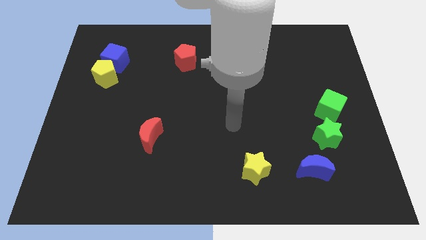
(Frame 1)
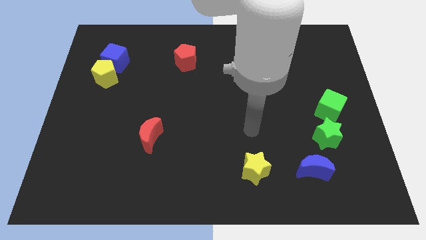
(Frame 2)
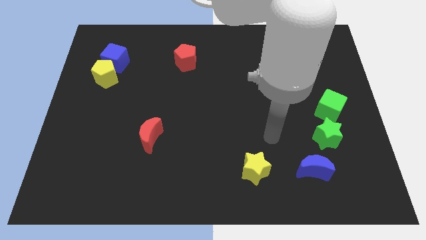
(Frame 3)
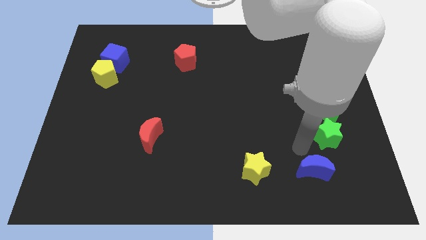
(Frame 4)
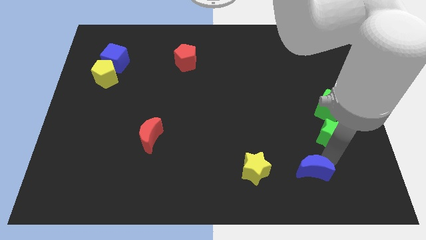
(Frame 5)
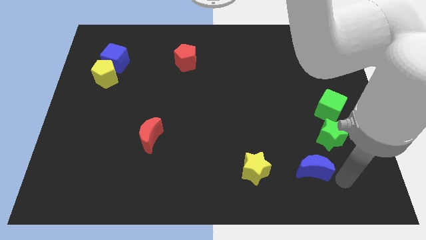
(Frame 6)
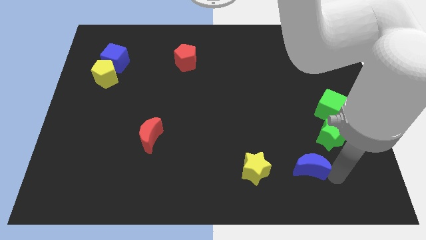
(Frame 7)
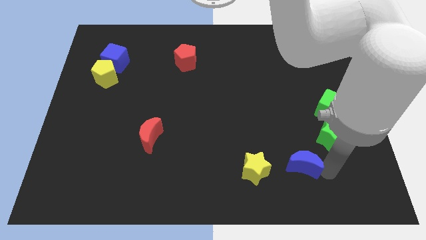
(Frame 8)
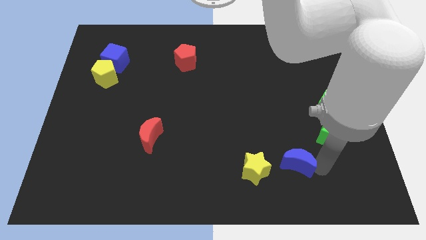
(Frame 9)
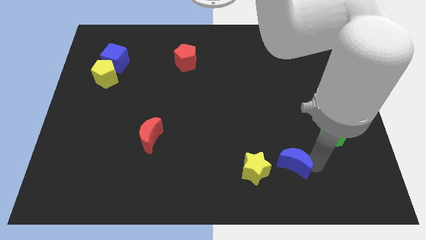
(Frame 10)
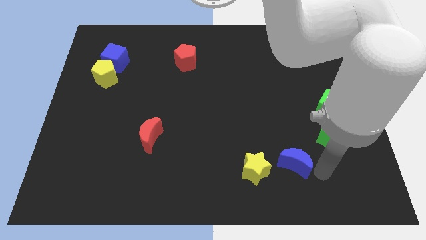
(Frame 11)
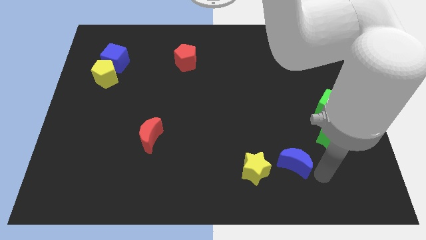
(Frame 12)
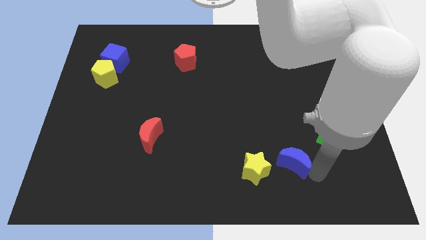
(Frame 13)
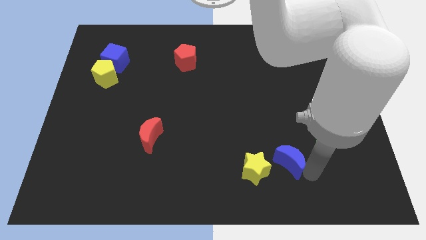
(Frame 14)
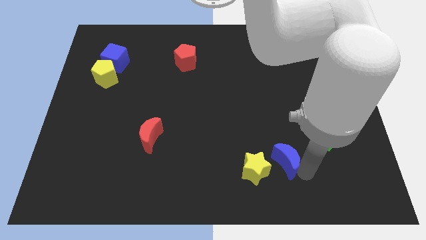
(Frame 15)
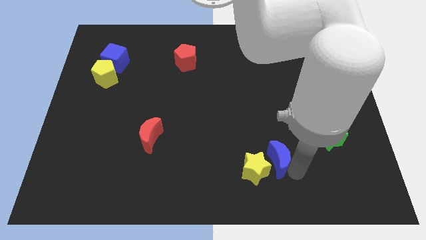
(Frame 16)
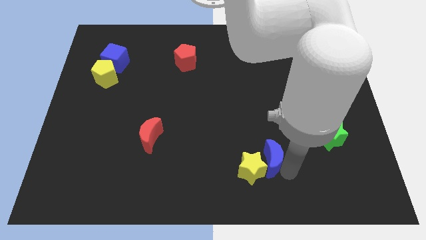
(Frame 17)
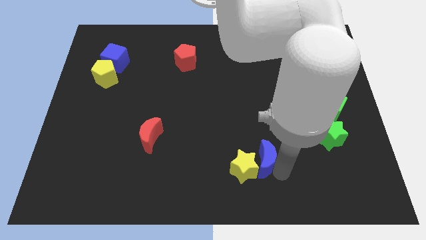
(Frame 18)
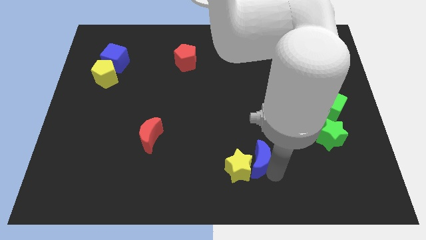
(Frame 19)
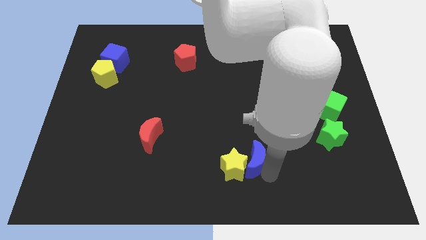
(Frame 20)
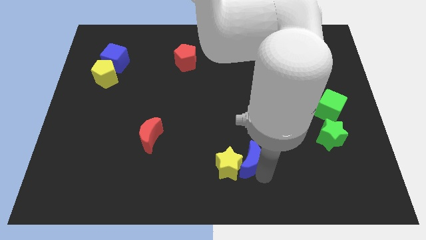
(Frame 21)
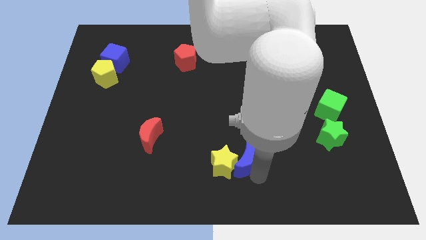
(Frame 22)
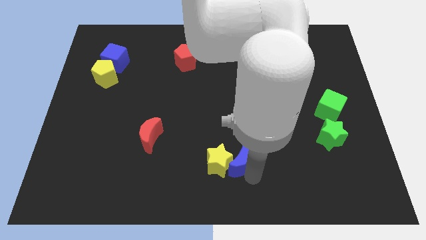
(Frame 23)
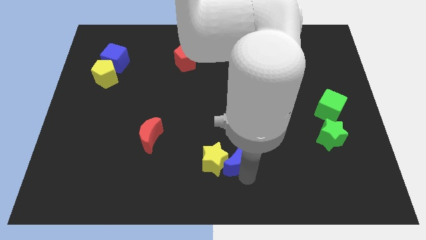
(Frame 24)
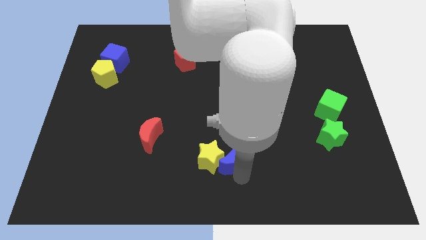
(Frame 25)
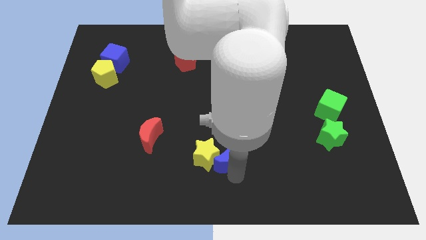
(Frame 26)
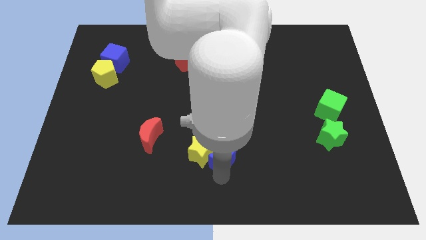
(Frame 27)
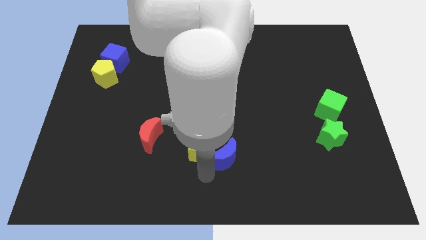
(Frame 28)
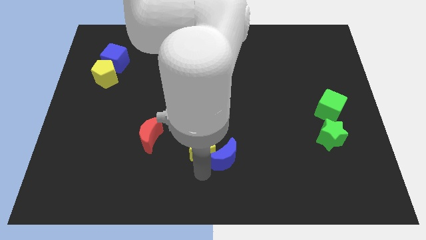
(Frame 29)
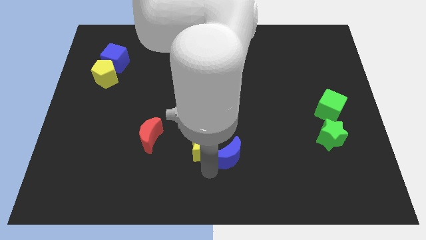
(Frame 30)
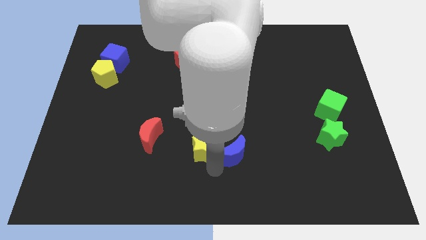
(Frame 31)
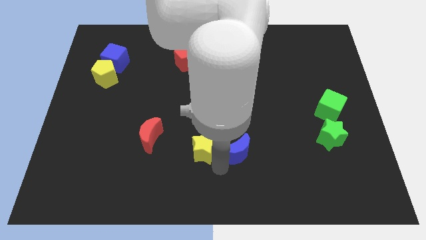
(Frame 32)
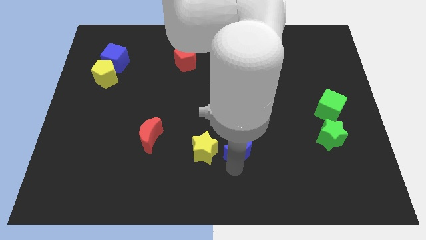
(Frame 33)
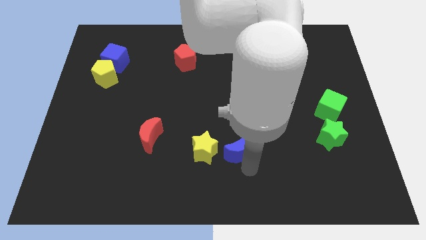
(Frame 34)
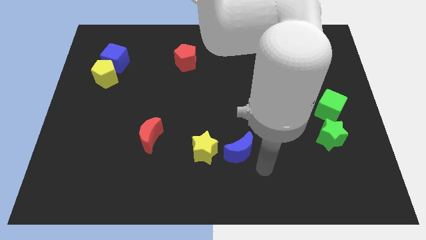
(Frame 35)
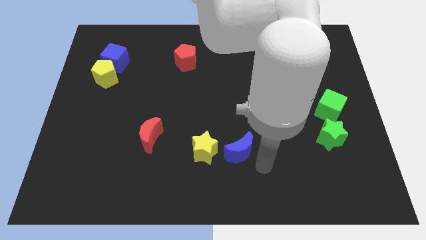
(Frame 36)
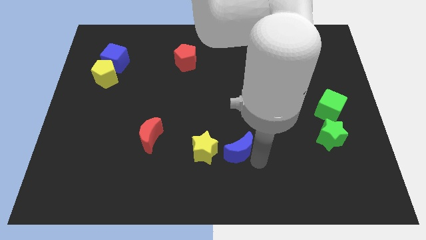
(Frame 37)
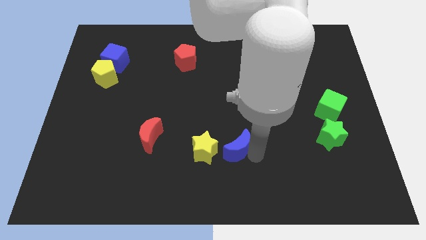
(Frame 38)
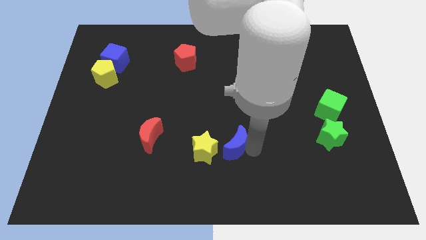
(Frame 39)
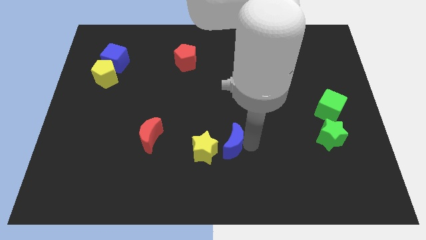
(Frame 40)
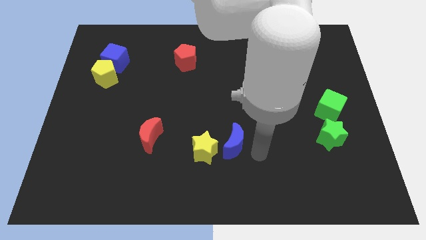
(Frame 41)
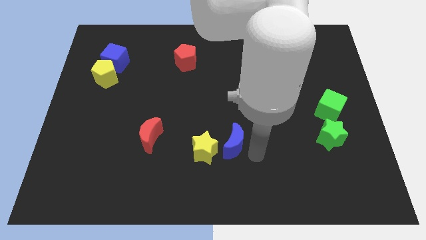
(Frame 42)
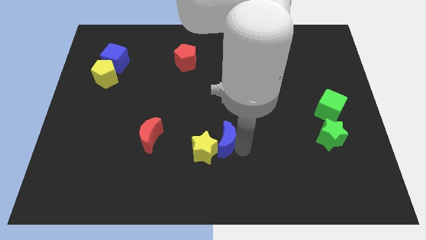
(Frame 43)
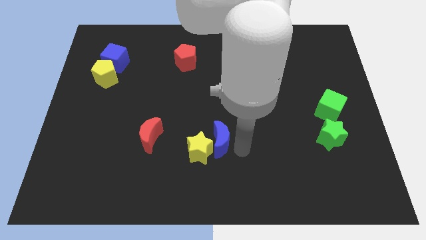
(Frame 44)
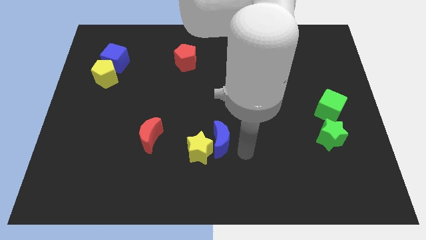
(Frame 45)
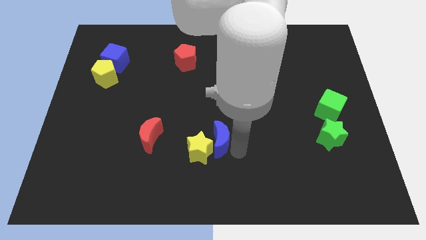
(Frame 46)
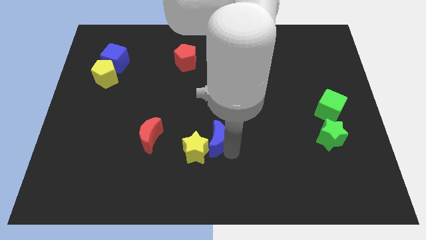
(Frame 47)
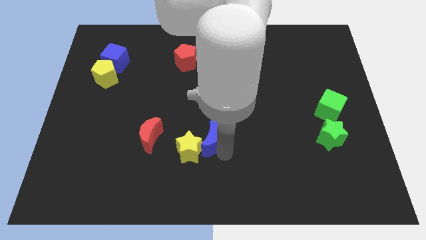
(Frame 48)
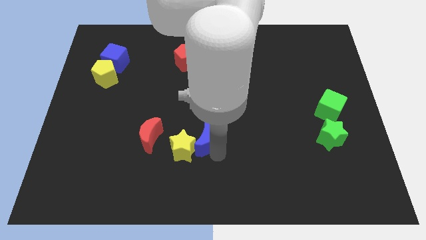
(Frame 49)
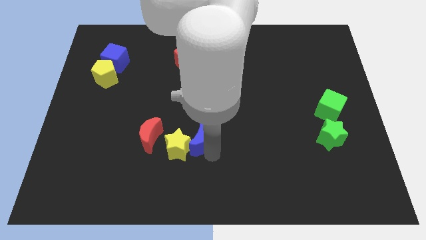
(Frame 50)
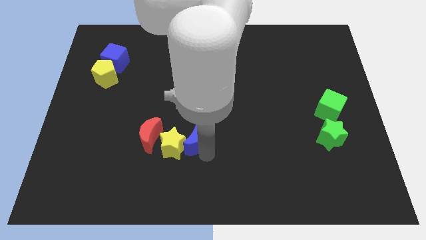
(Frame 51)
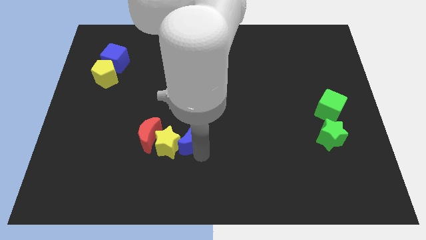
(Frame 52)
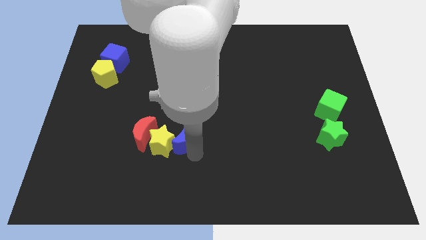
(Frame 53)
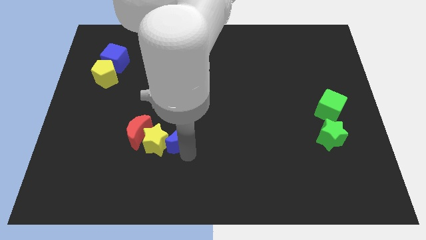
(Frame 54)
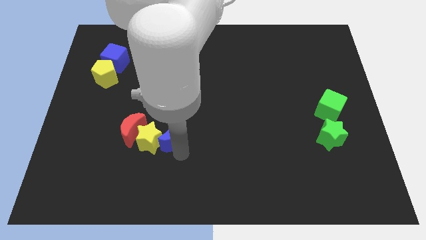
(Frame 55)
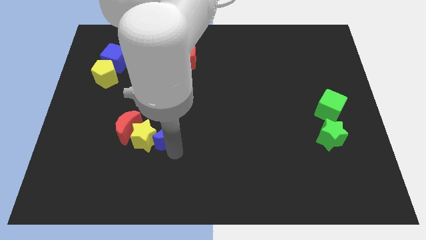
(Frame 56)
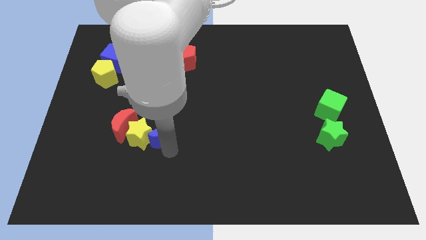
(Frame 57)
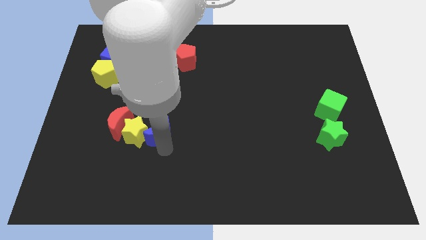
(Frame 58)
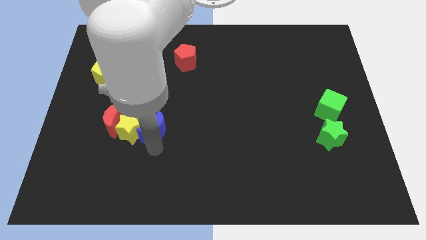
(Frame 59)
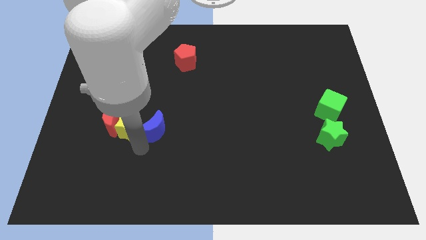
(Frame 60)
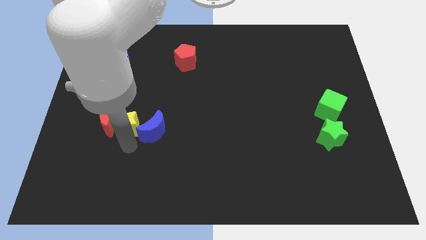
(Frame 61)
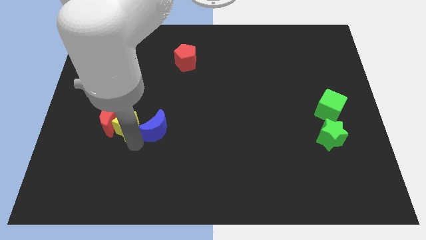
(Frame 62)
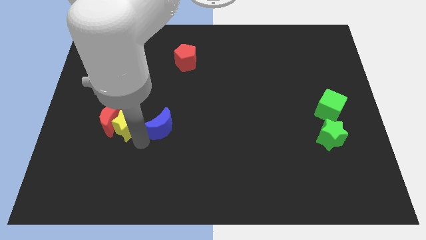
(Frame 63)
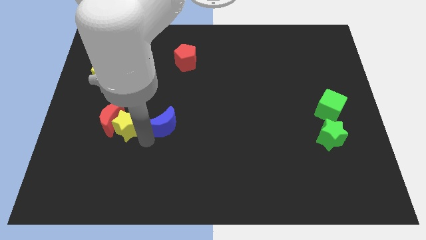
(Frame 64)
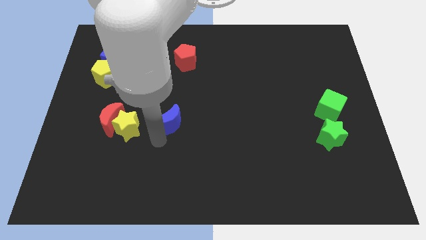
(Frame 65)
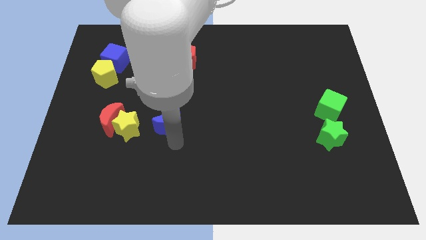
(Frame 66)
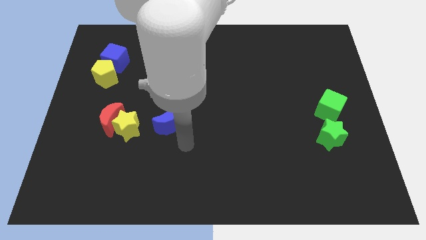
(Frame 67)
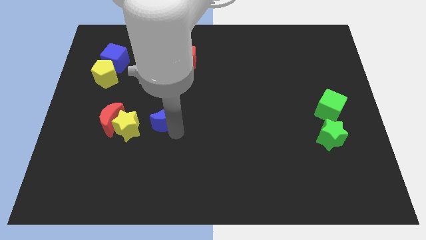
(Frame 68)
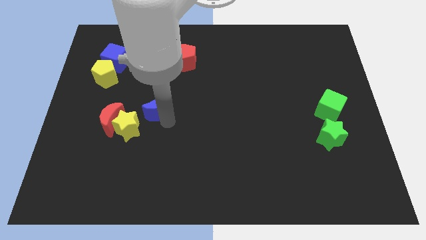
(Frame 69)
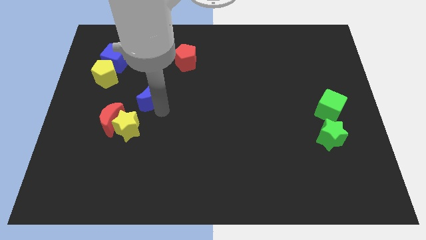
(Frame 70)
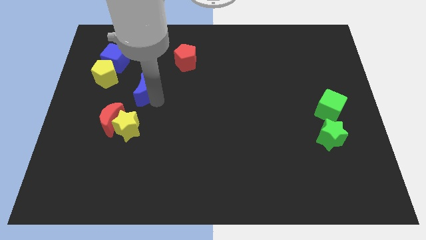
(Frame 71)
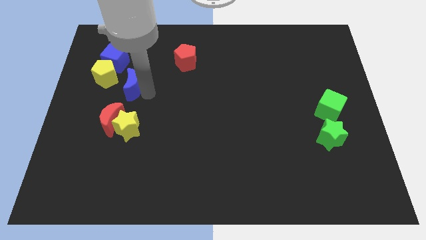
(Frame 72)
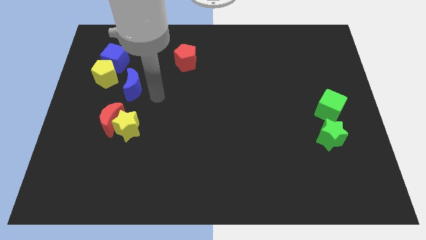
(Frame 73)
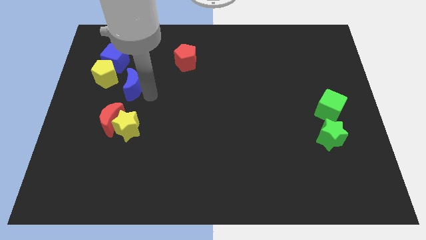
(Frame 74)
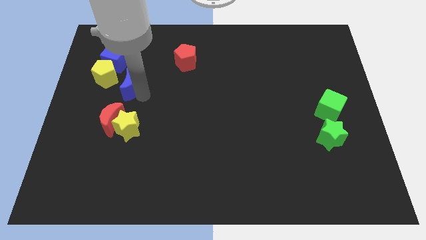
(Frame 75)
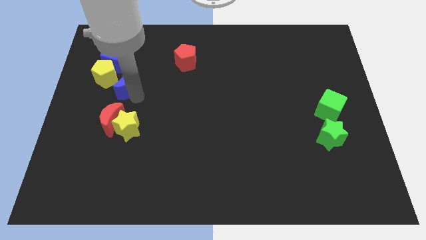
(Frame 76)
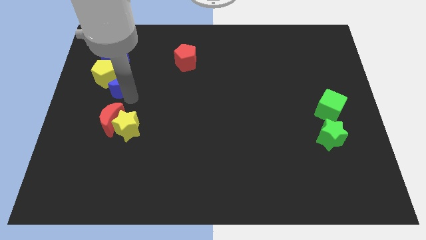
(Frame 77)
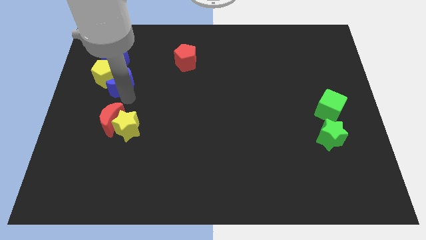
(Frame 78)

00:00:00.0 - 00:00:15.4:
slide the blue moon to the yellow pentagon
